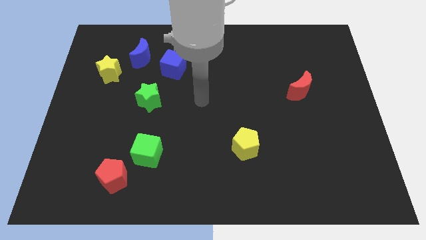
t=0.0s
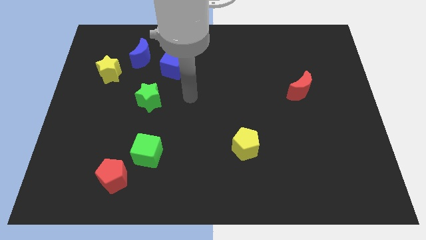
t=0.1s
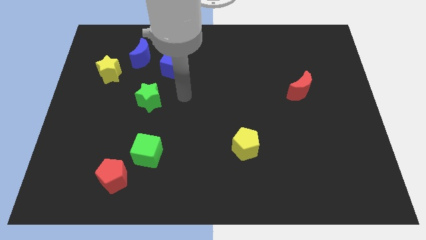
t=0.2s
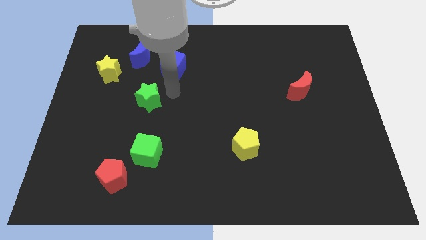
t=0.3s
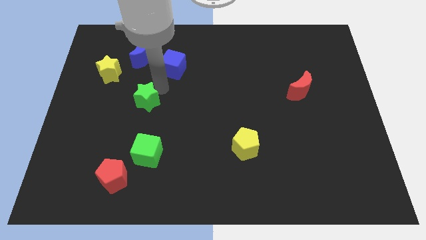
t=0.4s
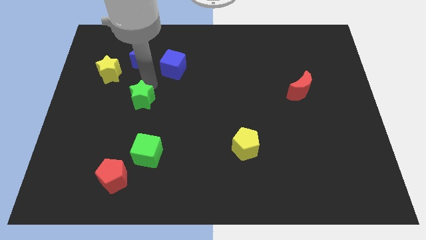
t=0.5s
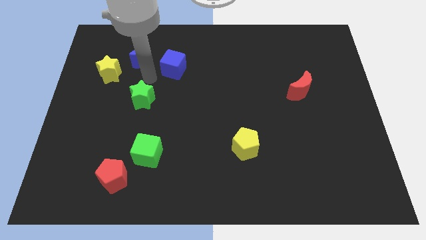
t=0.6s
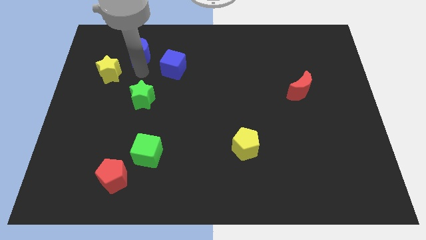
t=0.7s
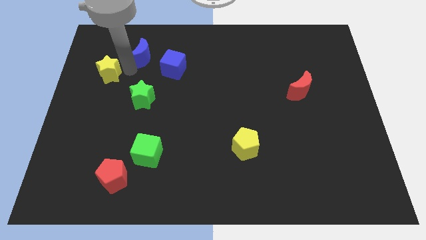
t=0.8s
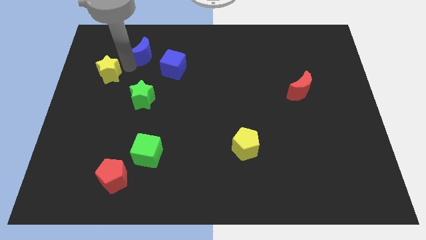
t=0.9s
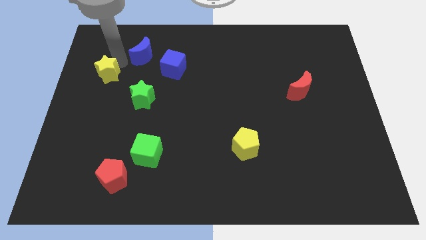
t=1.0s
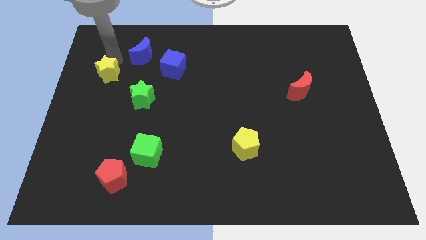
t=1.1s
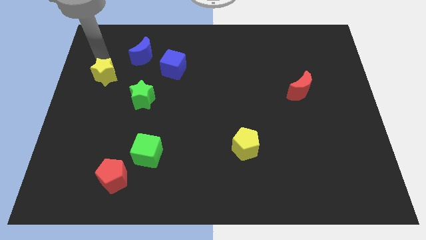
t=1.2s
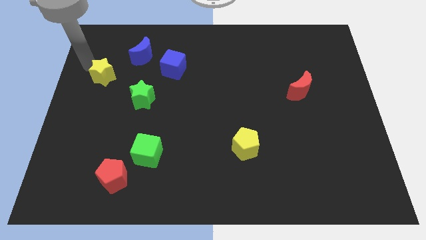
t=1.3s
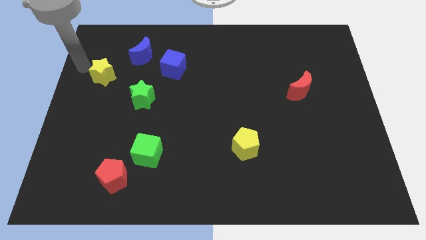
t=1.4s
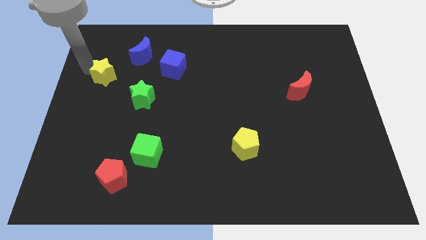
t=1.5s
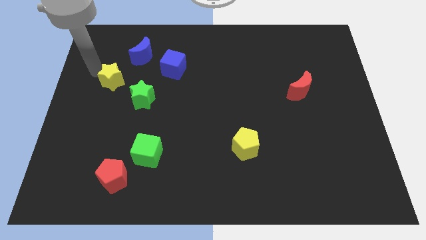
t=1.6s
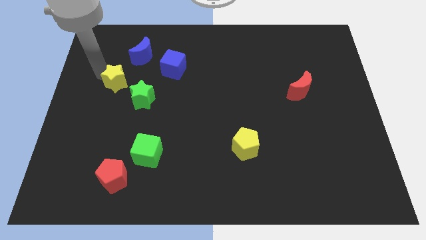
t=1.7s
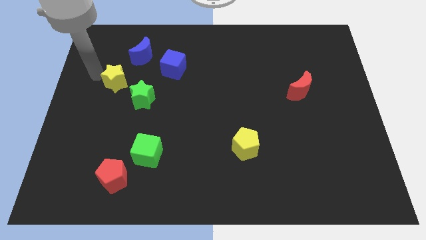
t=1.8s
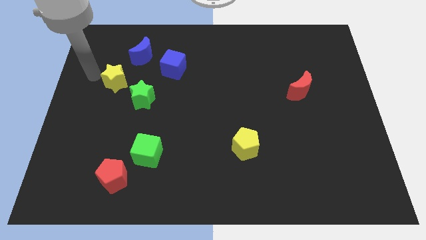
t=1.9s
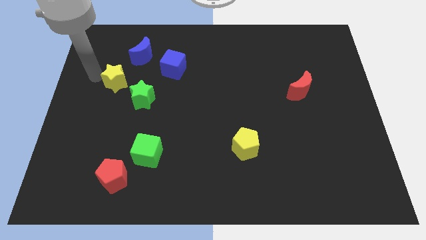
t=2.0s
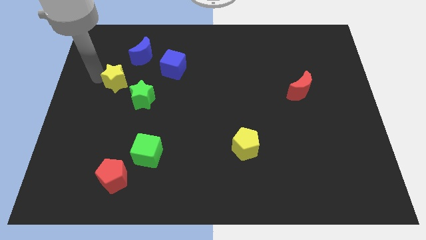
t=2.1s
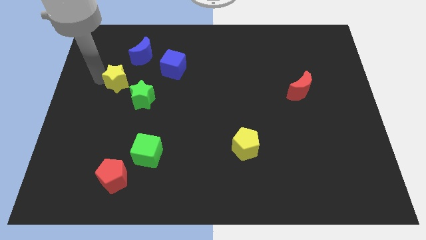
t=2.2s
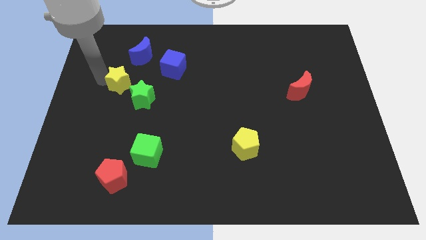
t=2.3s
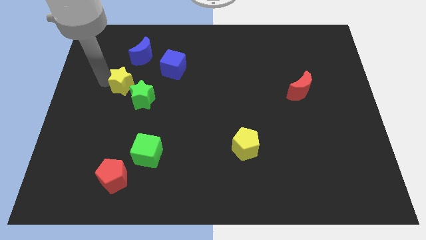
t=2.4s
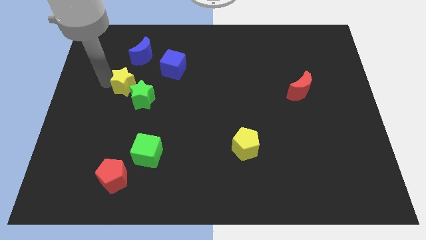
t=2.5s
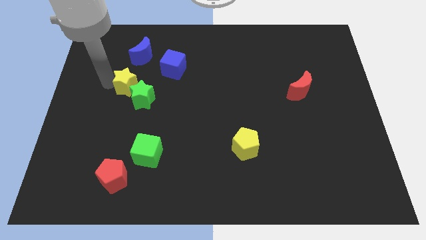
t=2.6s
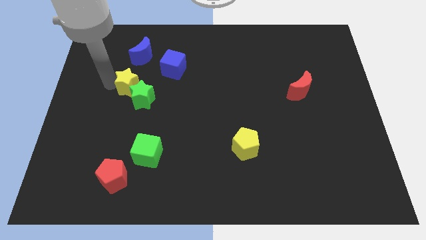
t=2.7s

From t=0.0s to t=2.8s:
slightly push the yellow star down and then to the right

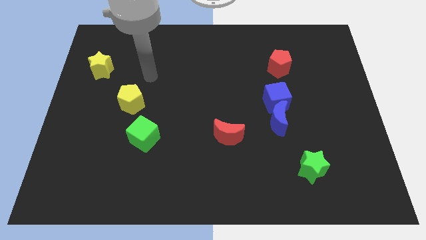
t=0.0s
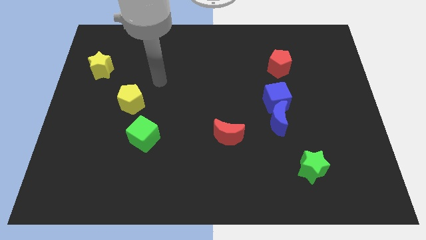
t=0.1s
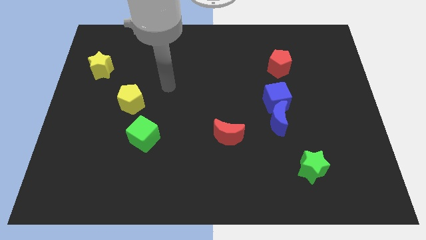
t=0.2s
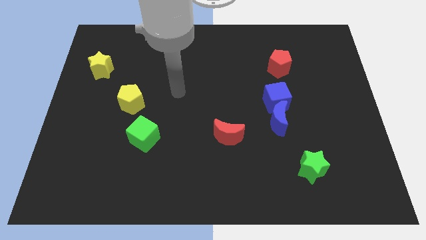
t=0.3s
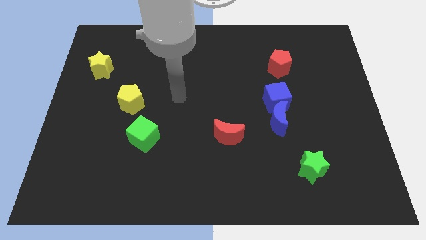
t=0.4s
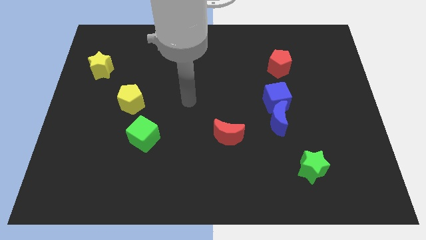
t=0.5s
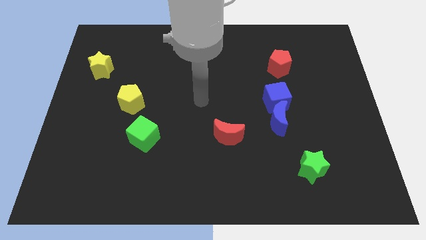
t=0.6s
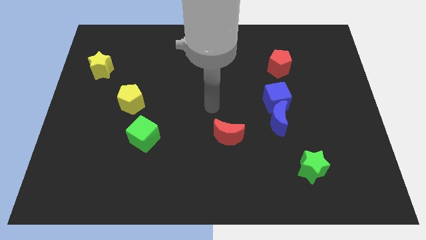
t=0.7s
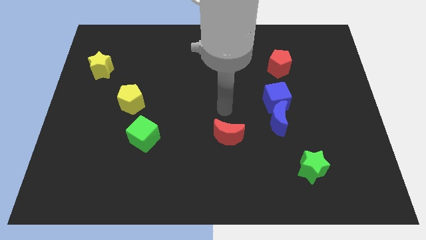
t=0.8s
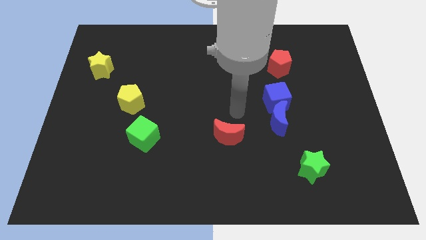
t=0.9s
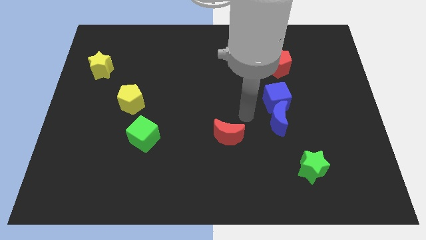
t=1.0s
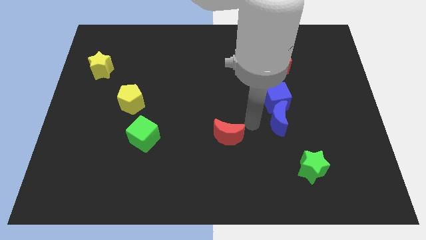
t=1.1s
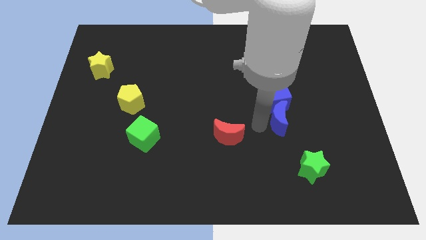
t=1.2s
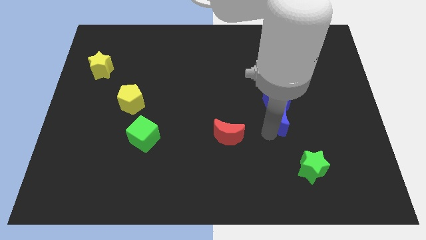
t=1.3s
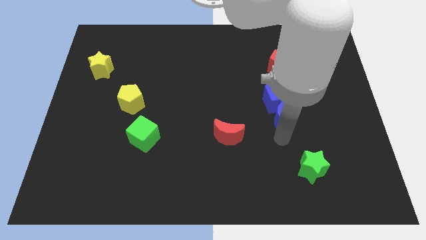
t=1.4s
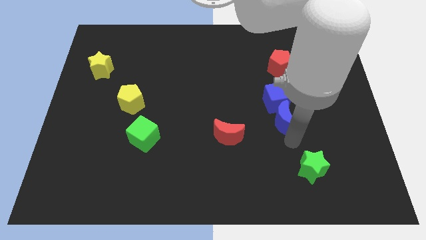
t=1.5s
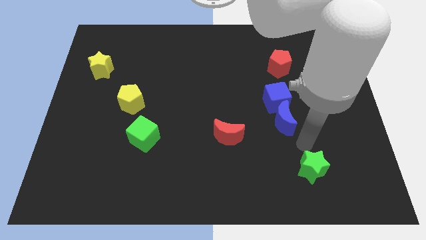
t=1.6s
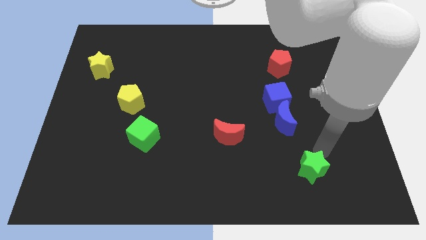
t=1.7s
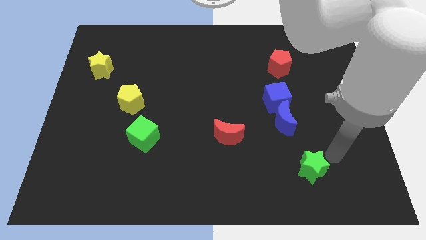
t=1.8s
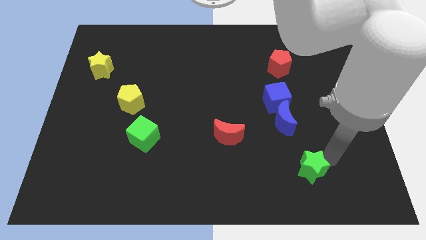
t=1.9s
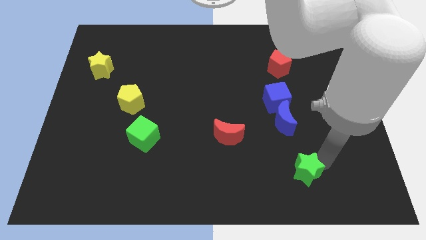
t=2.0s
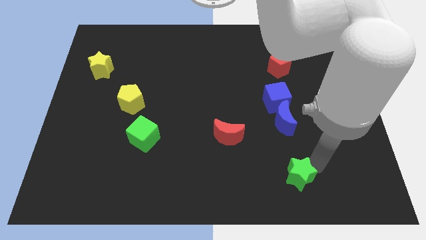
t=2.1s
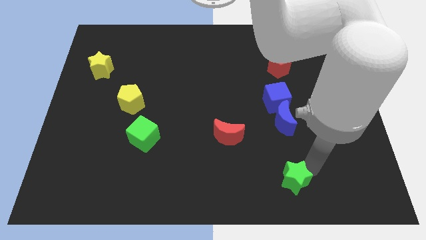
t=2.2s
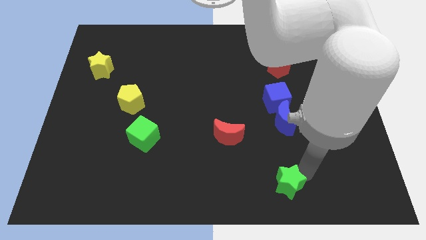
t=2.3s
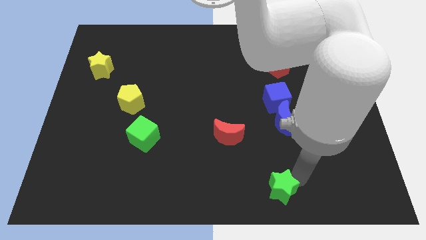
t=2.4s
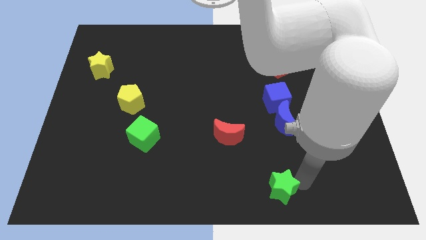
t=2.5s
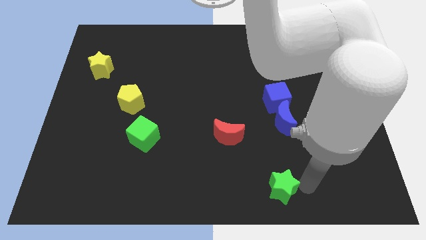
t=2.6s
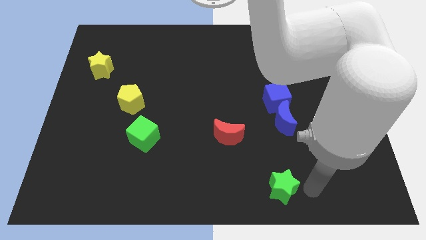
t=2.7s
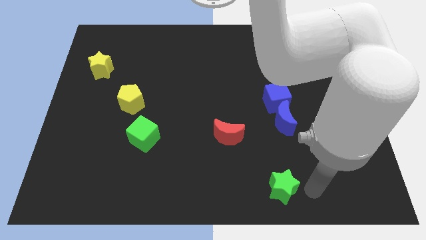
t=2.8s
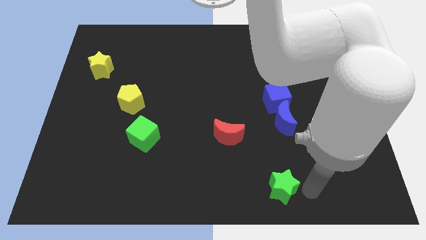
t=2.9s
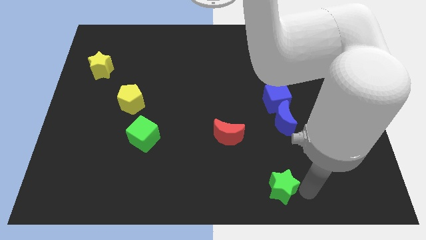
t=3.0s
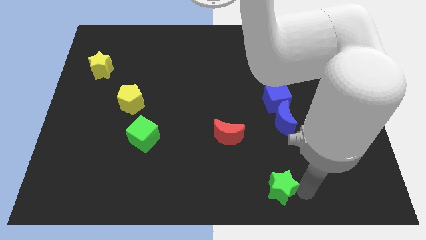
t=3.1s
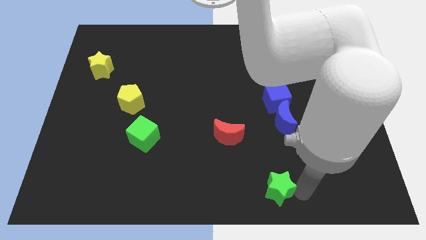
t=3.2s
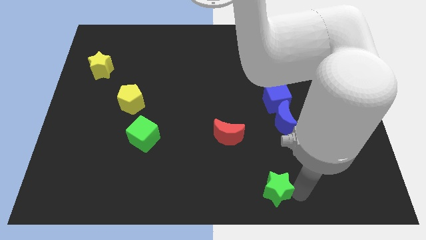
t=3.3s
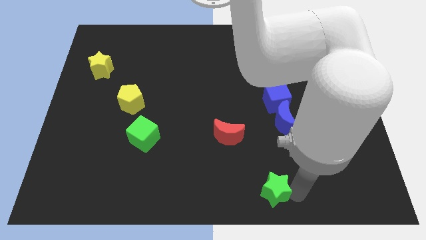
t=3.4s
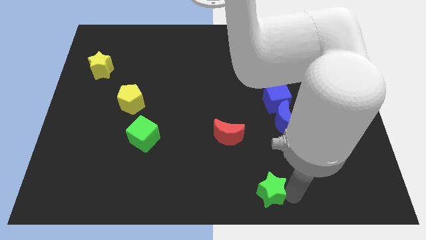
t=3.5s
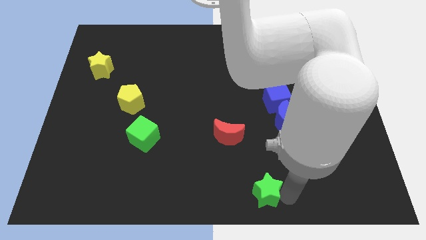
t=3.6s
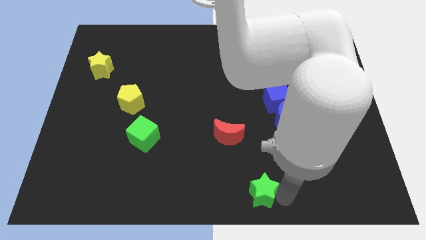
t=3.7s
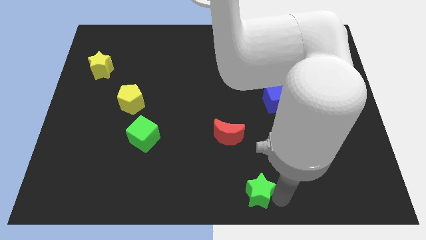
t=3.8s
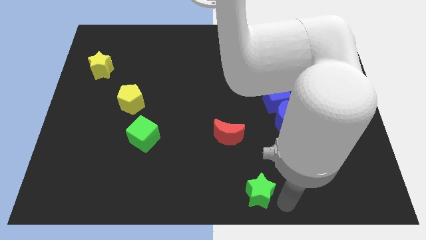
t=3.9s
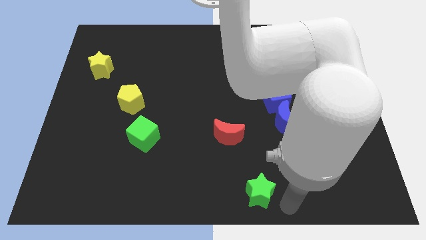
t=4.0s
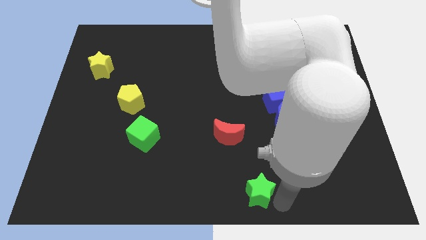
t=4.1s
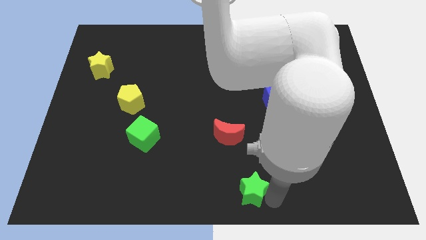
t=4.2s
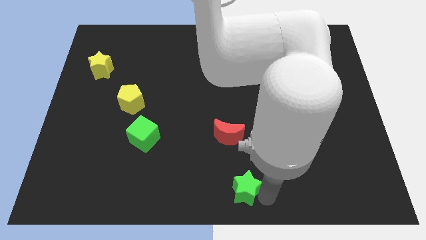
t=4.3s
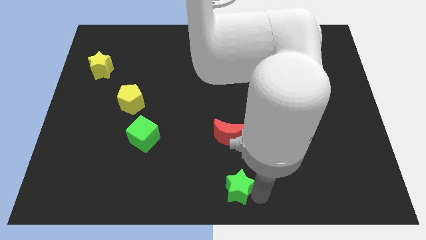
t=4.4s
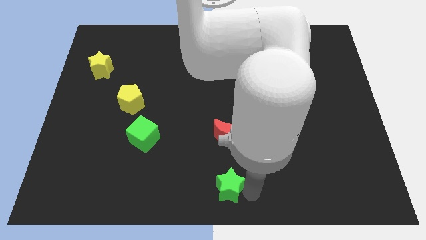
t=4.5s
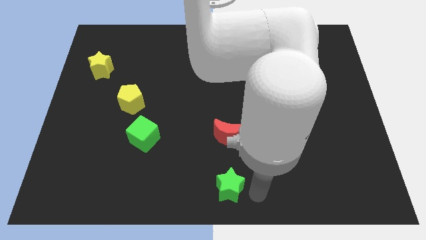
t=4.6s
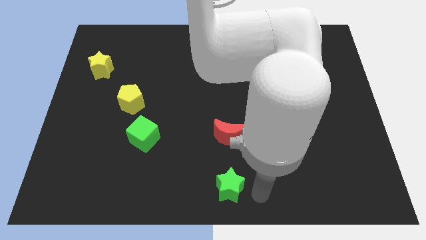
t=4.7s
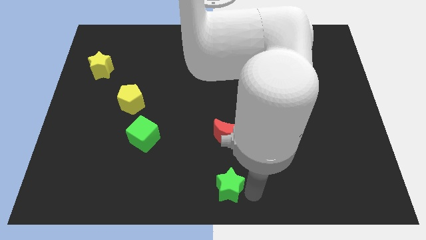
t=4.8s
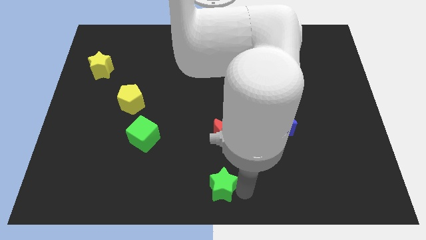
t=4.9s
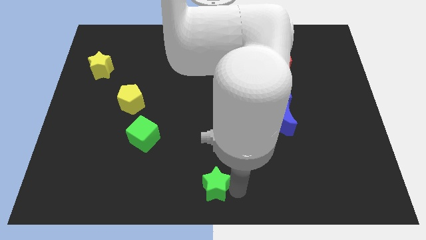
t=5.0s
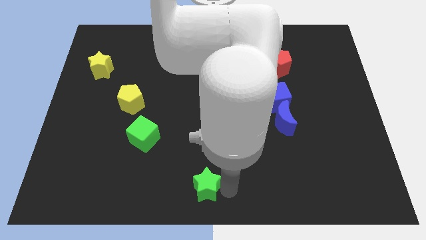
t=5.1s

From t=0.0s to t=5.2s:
slide the green star left

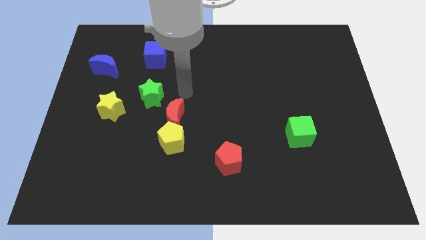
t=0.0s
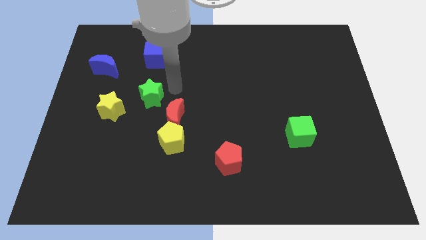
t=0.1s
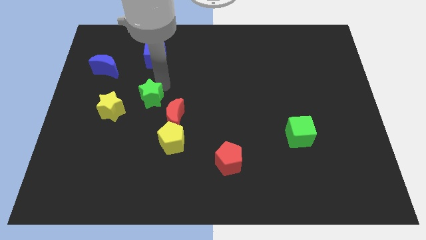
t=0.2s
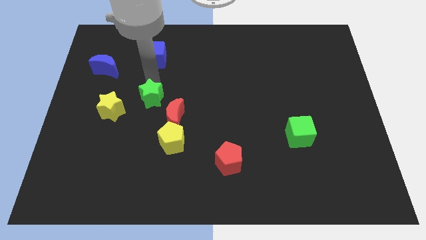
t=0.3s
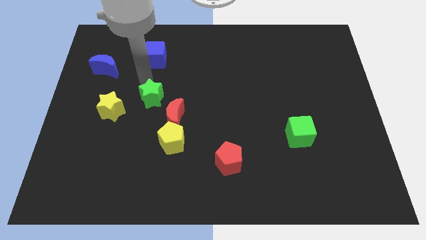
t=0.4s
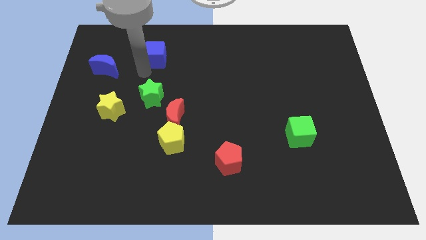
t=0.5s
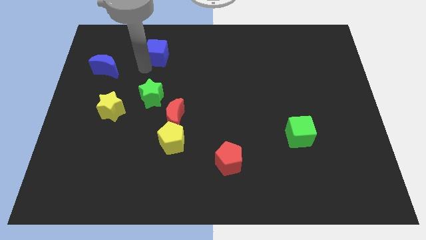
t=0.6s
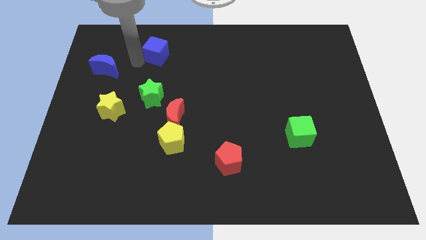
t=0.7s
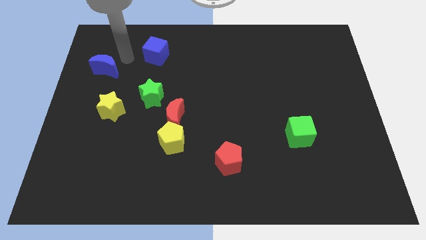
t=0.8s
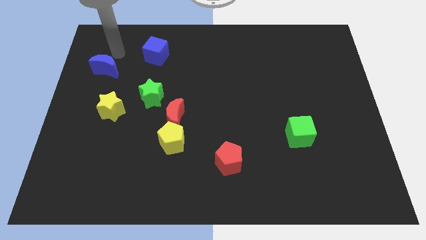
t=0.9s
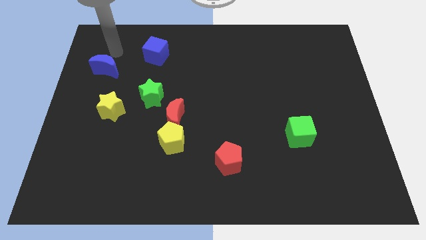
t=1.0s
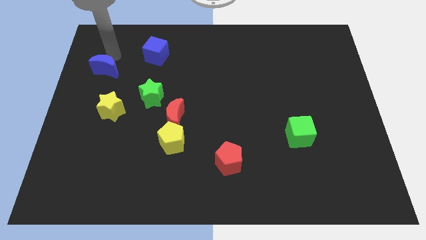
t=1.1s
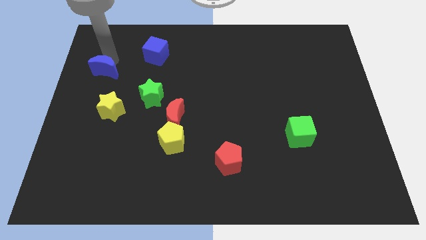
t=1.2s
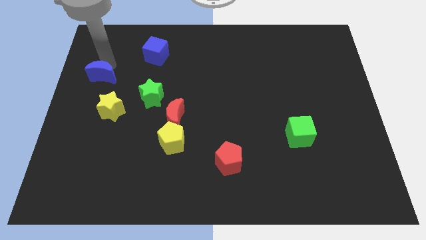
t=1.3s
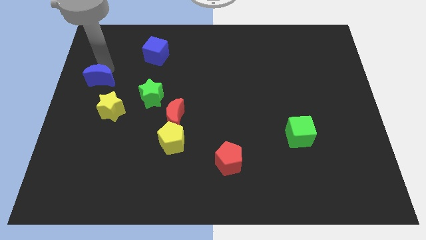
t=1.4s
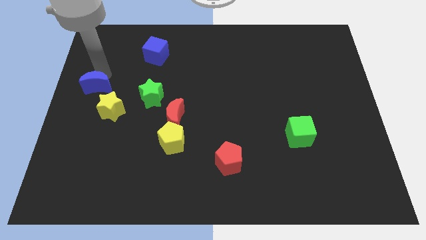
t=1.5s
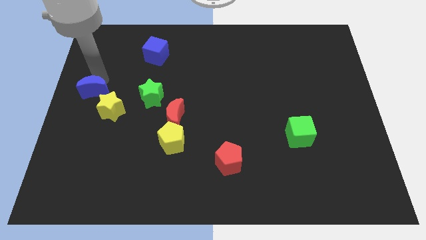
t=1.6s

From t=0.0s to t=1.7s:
slide the blue moon down slightly
